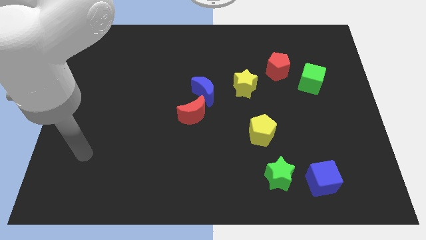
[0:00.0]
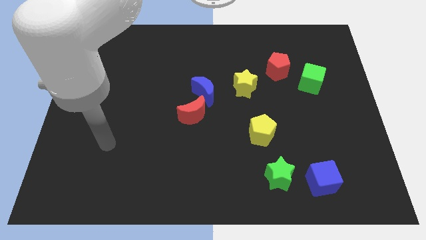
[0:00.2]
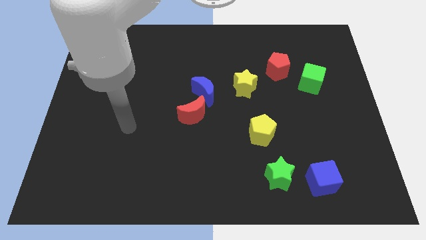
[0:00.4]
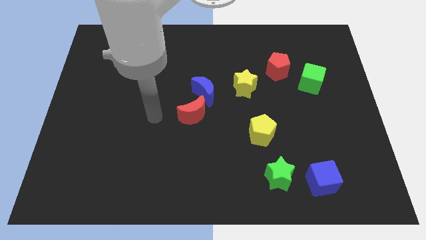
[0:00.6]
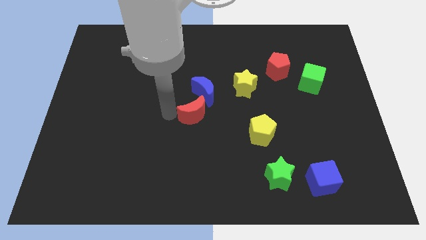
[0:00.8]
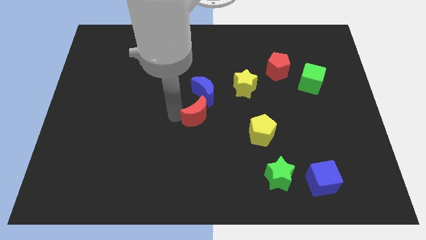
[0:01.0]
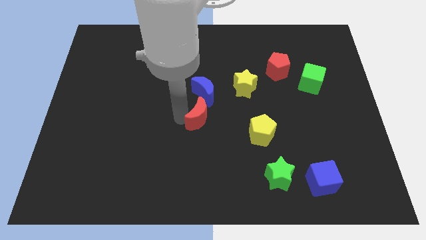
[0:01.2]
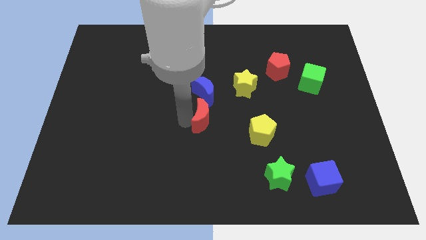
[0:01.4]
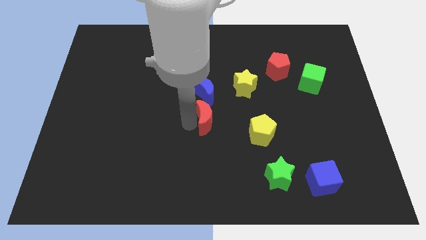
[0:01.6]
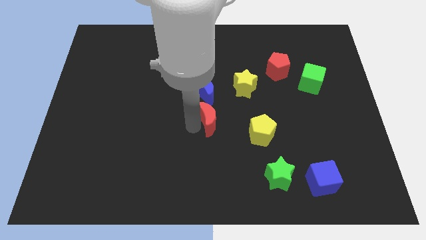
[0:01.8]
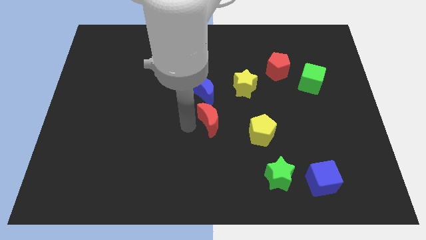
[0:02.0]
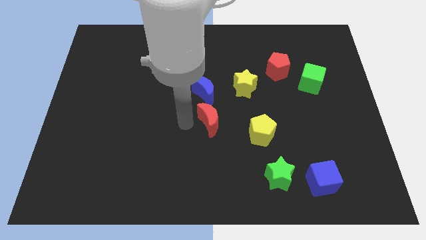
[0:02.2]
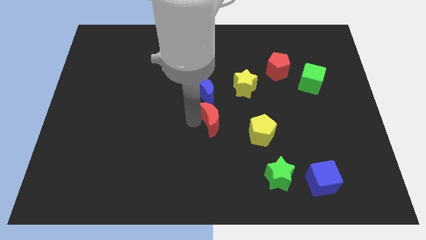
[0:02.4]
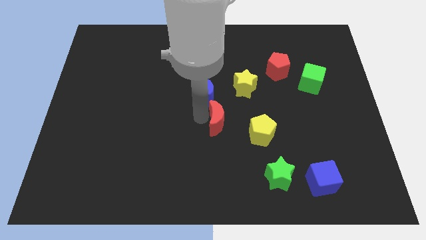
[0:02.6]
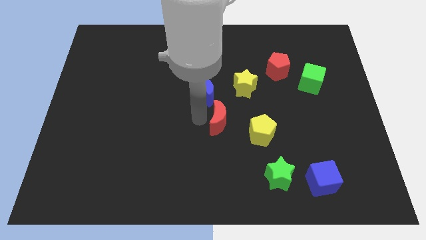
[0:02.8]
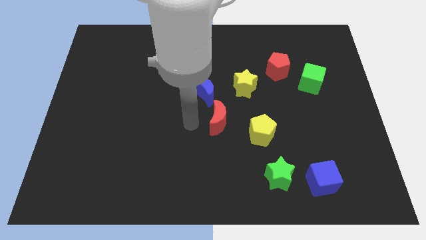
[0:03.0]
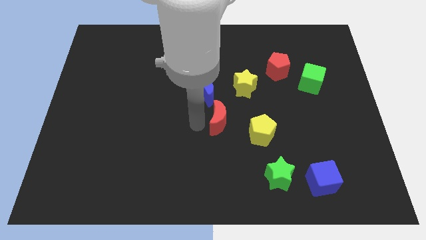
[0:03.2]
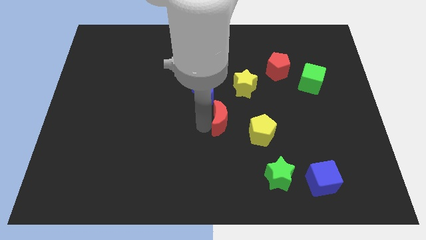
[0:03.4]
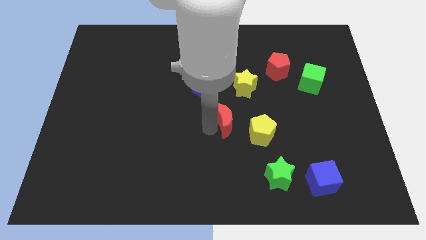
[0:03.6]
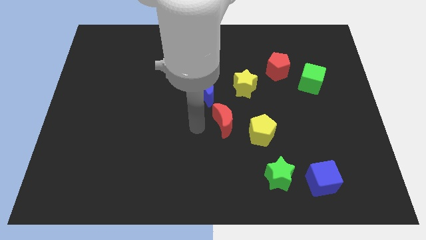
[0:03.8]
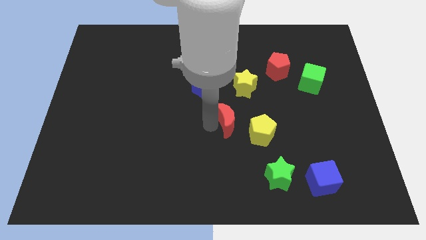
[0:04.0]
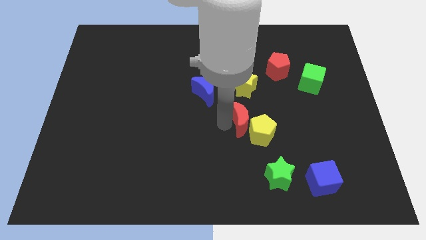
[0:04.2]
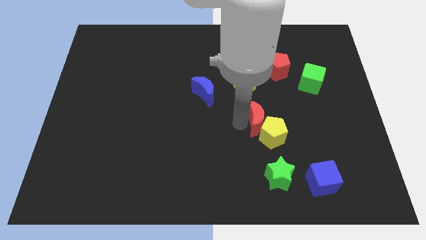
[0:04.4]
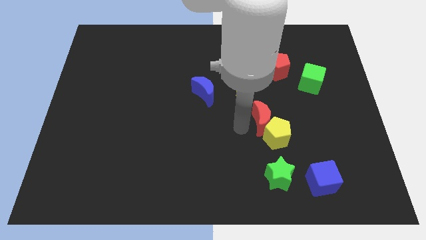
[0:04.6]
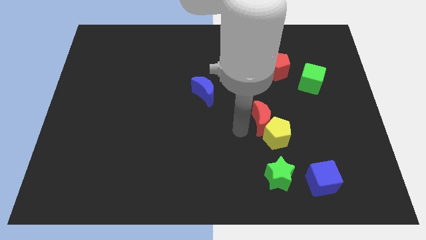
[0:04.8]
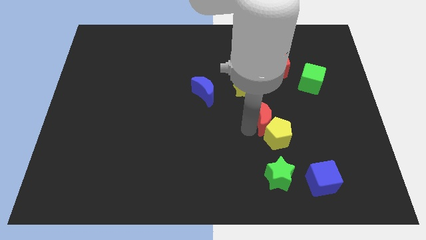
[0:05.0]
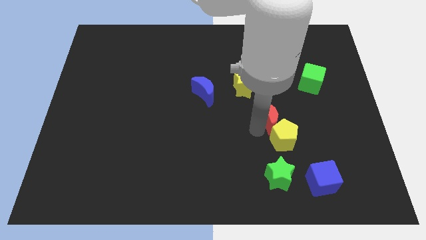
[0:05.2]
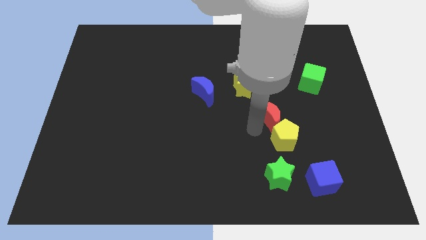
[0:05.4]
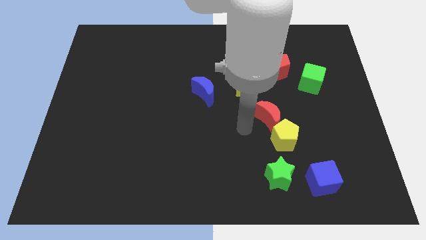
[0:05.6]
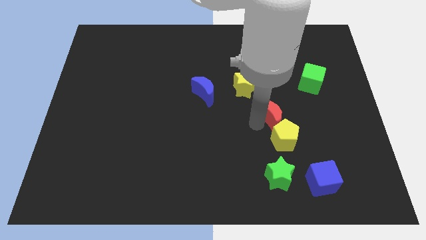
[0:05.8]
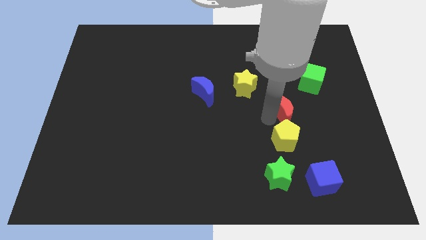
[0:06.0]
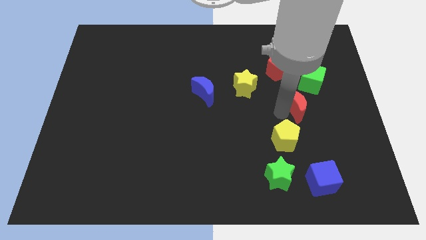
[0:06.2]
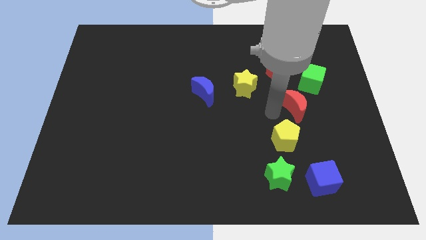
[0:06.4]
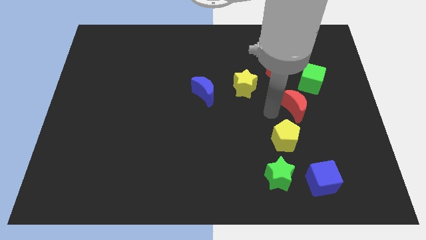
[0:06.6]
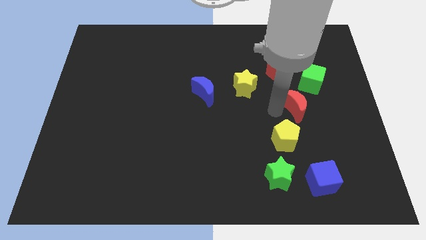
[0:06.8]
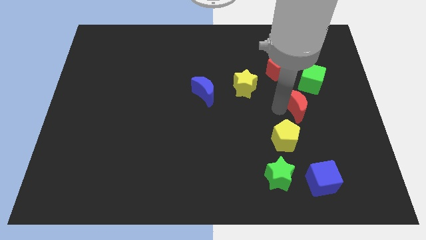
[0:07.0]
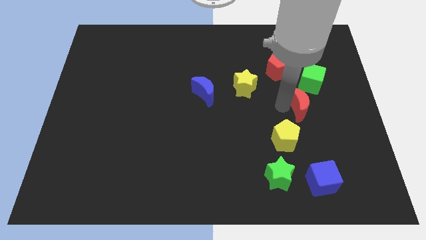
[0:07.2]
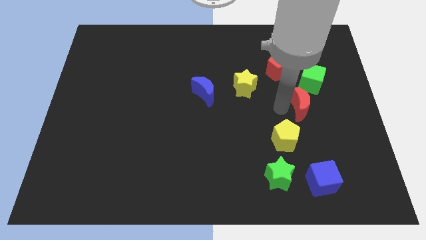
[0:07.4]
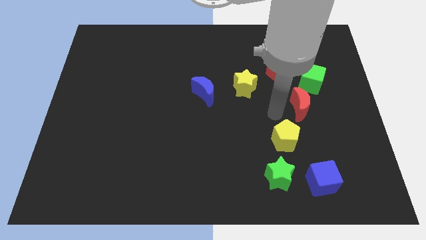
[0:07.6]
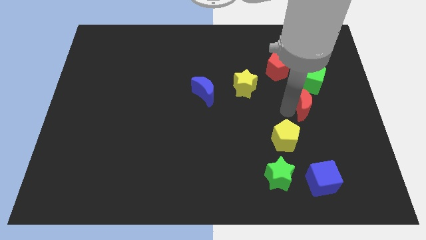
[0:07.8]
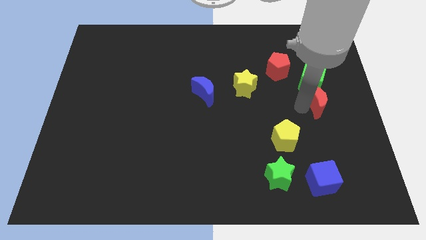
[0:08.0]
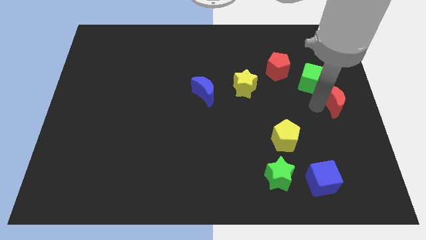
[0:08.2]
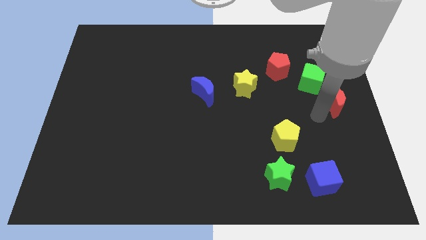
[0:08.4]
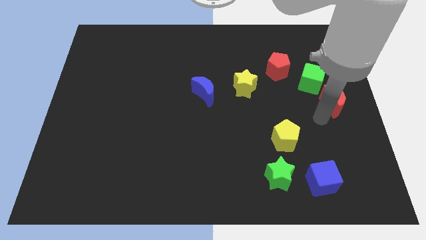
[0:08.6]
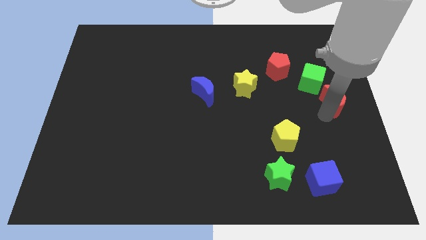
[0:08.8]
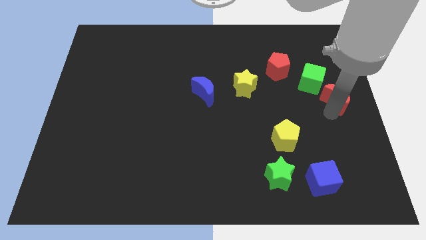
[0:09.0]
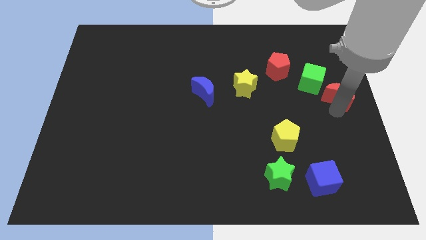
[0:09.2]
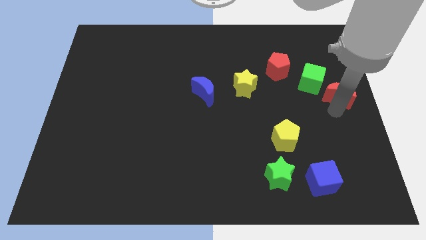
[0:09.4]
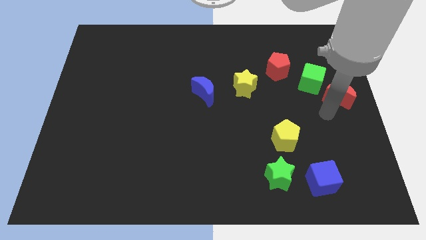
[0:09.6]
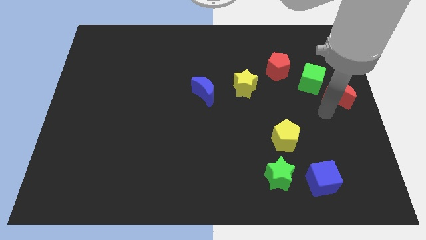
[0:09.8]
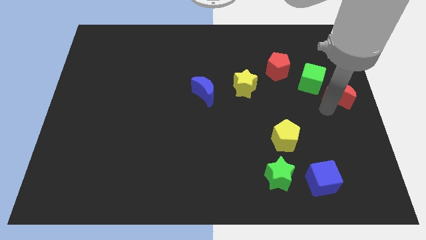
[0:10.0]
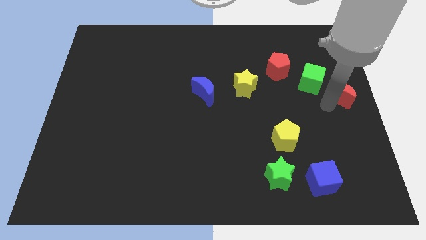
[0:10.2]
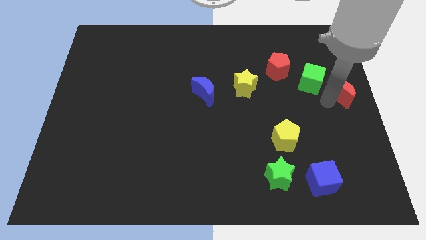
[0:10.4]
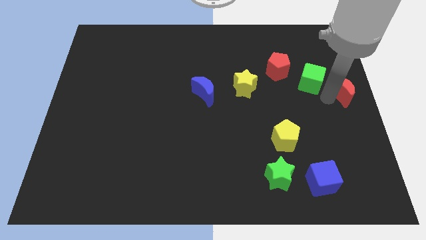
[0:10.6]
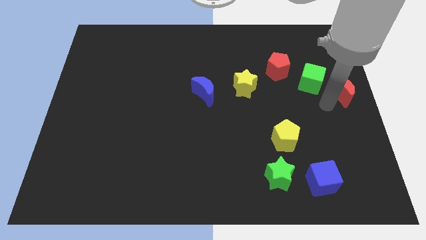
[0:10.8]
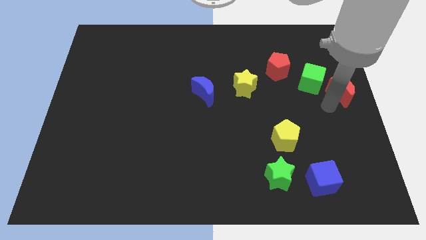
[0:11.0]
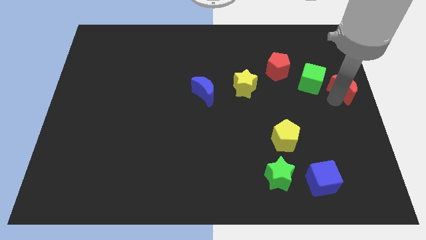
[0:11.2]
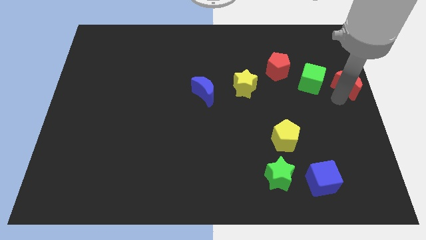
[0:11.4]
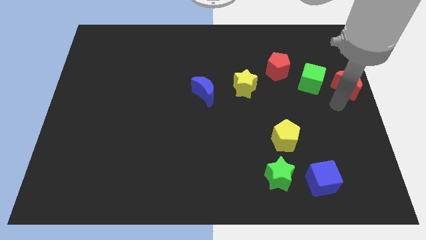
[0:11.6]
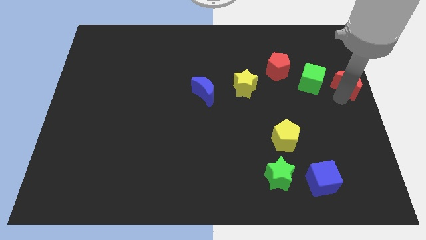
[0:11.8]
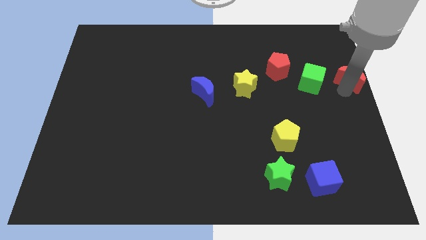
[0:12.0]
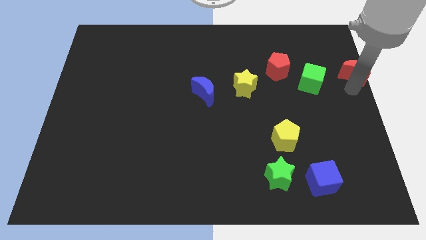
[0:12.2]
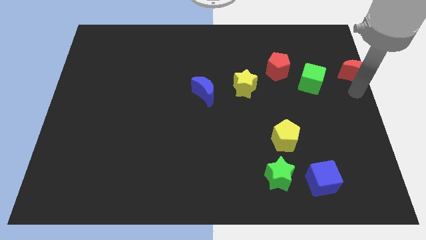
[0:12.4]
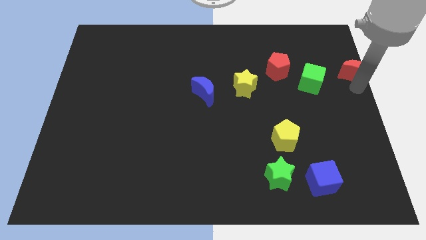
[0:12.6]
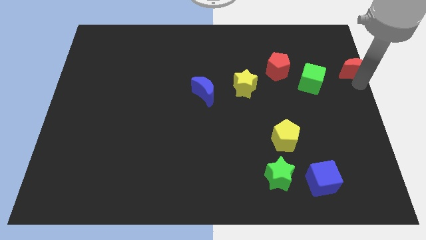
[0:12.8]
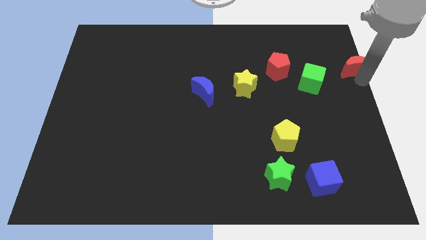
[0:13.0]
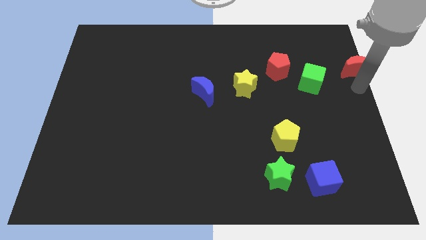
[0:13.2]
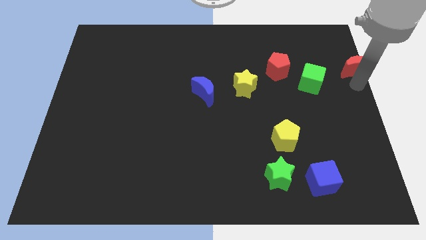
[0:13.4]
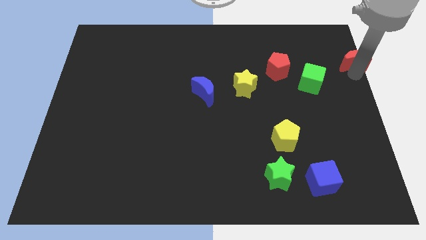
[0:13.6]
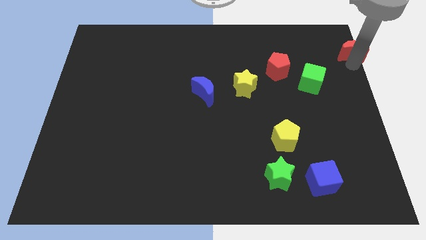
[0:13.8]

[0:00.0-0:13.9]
slide the red moon to the top right
